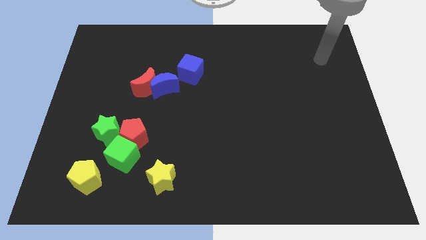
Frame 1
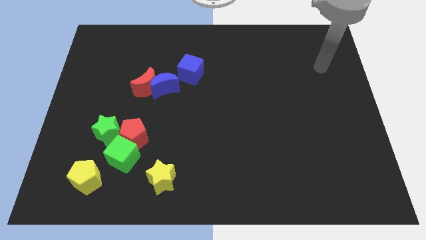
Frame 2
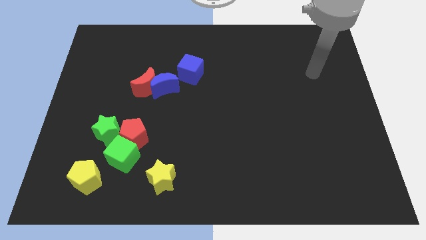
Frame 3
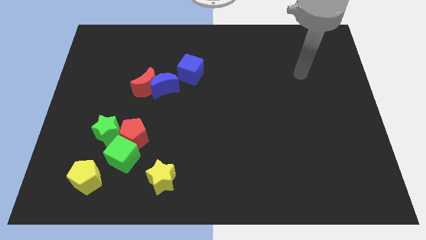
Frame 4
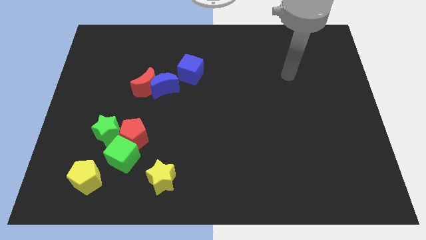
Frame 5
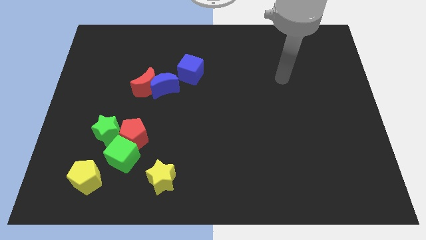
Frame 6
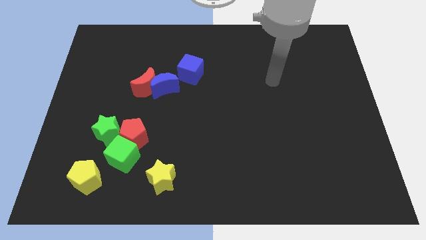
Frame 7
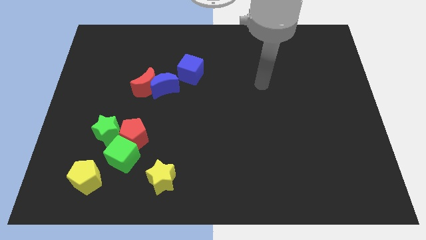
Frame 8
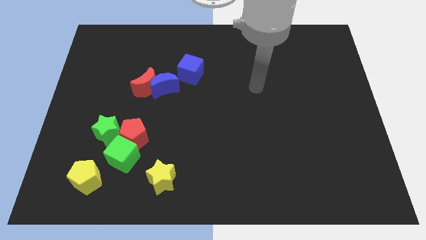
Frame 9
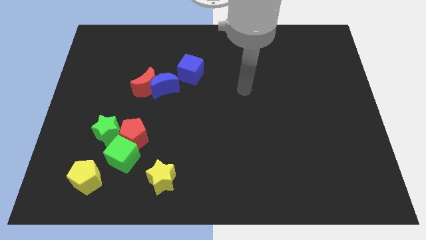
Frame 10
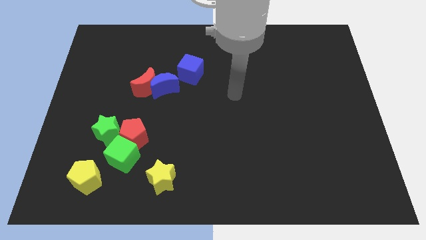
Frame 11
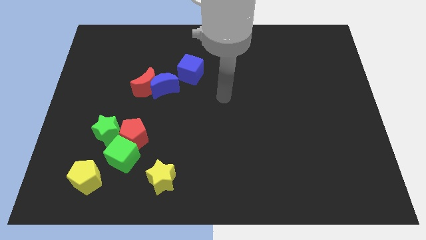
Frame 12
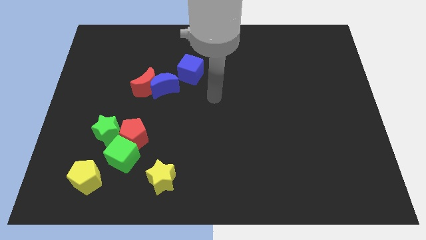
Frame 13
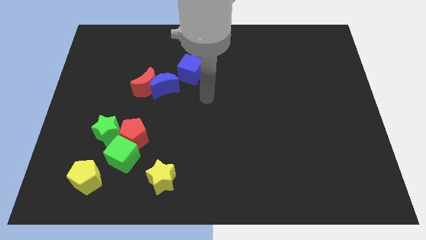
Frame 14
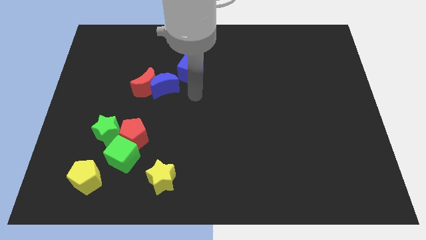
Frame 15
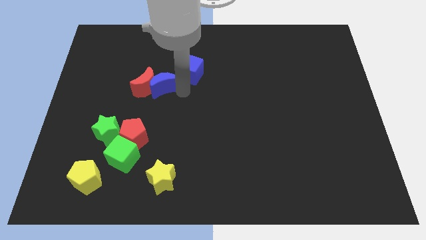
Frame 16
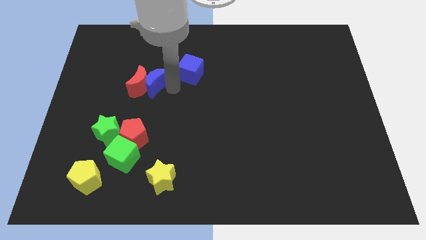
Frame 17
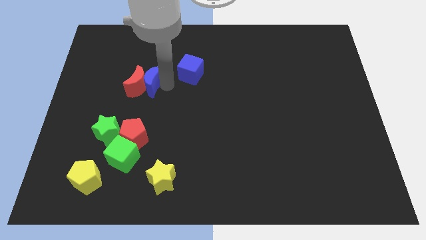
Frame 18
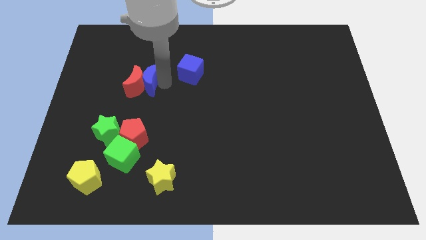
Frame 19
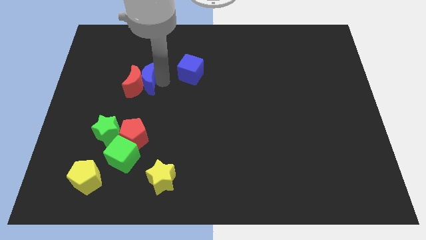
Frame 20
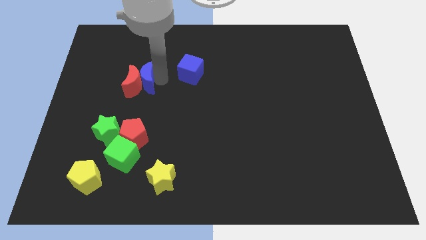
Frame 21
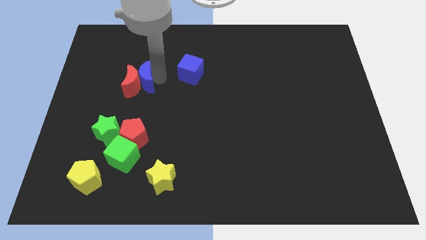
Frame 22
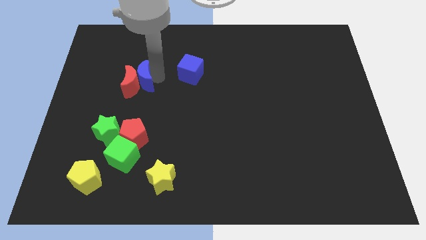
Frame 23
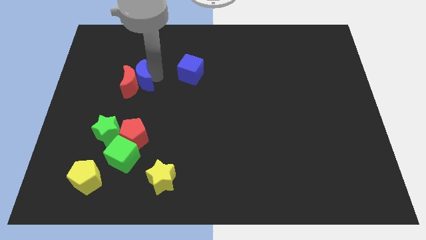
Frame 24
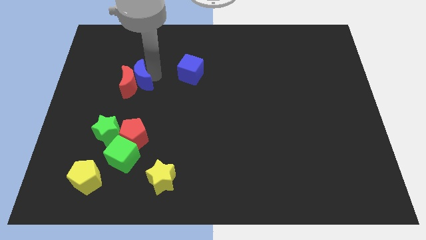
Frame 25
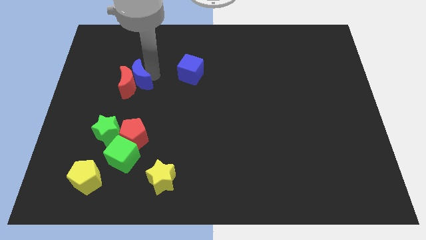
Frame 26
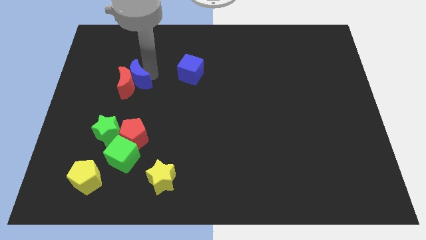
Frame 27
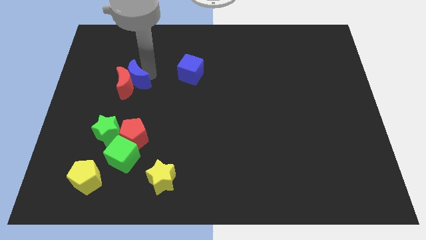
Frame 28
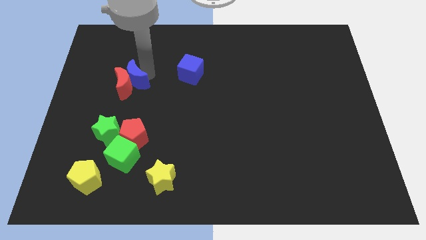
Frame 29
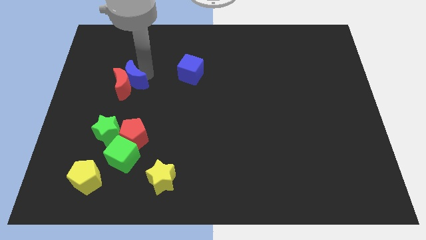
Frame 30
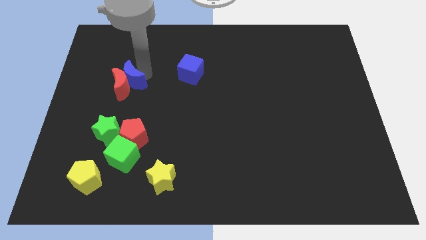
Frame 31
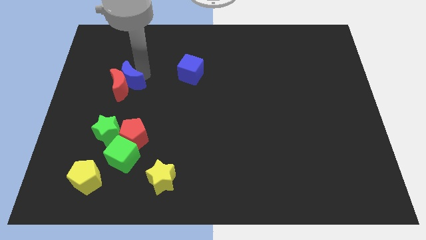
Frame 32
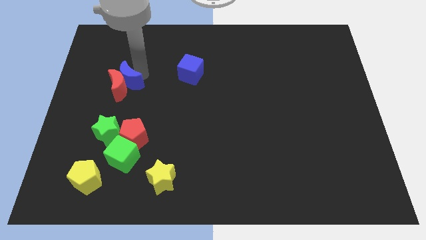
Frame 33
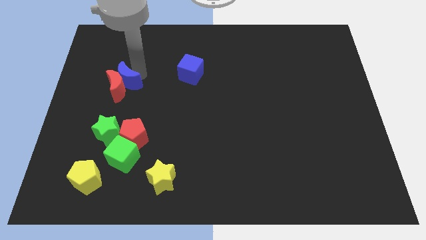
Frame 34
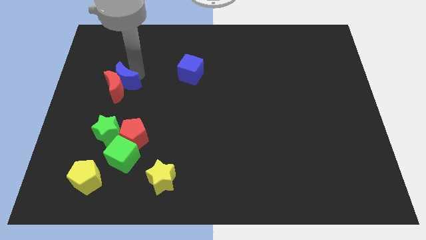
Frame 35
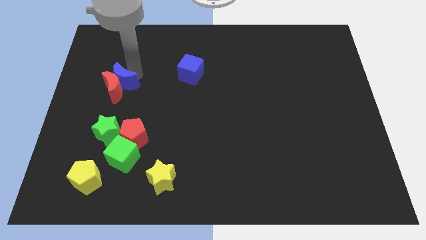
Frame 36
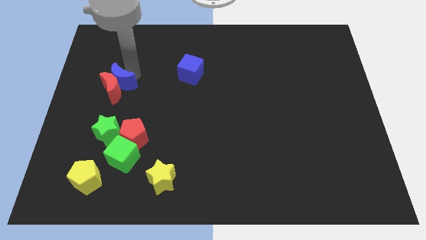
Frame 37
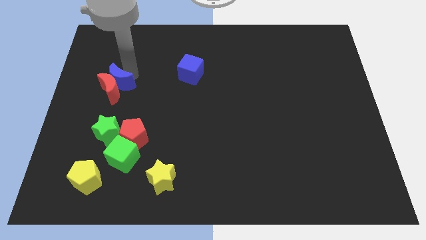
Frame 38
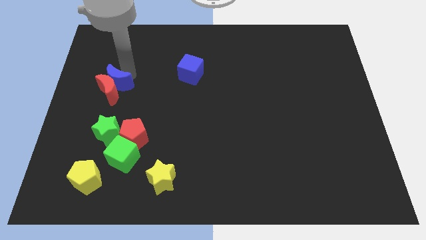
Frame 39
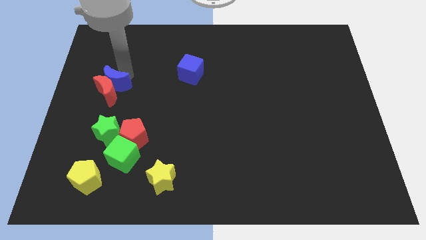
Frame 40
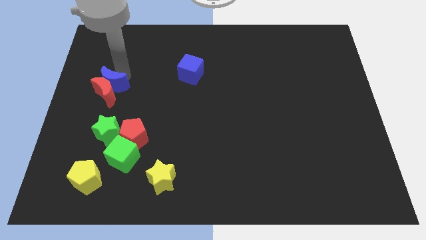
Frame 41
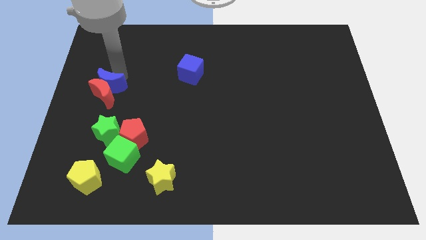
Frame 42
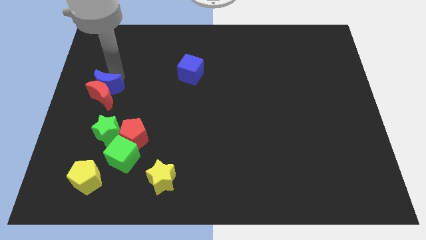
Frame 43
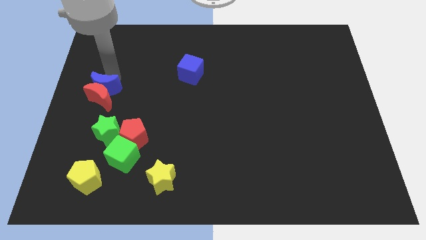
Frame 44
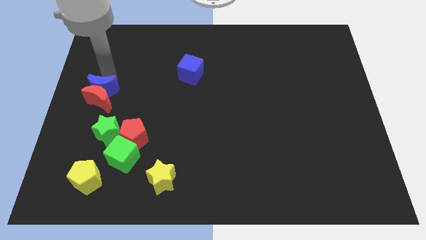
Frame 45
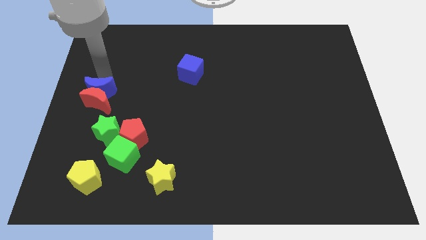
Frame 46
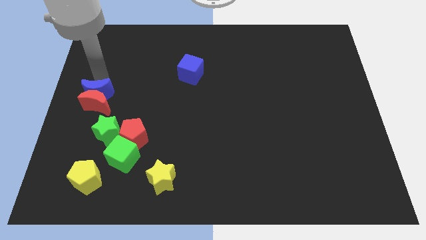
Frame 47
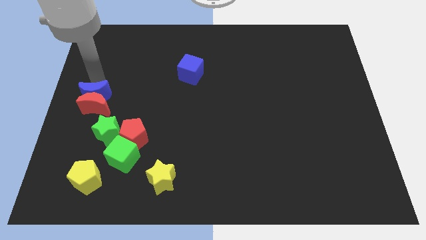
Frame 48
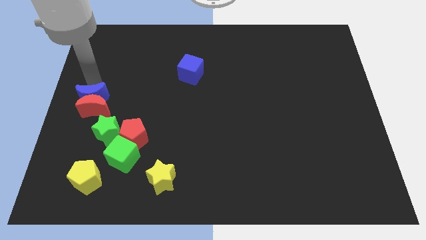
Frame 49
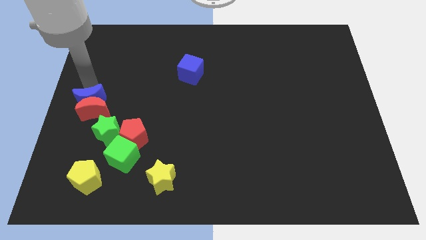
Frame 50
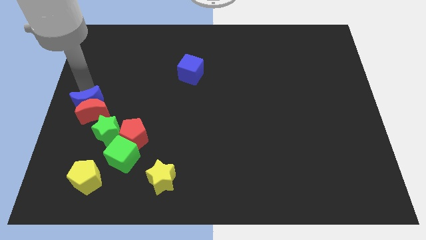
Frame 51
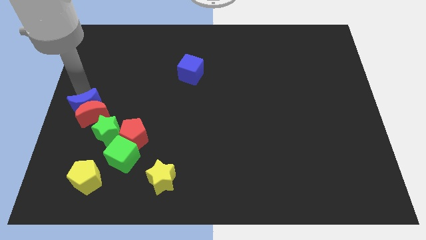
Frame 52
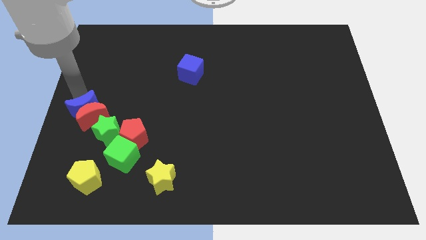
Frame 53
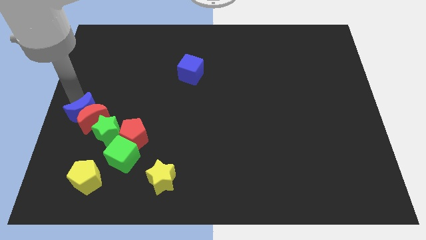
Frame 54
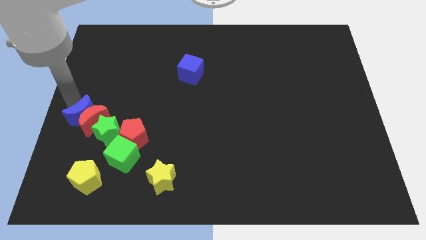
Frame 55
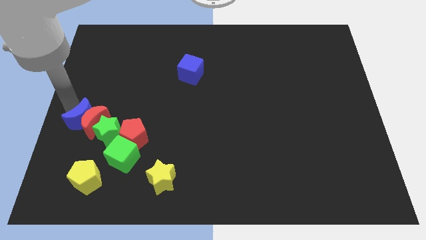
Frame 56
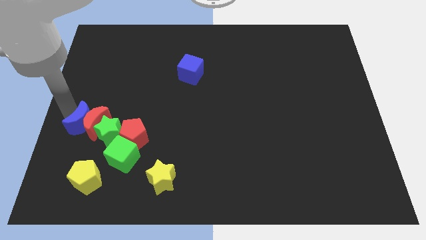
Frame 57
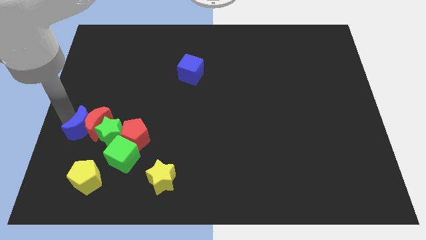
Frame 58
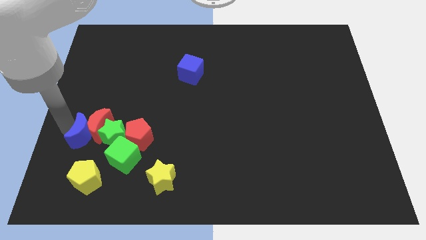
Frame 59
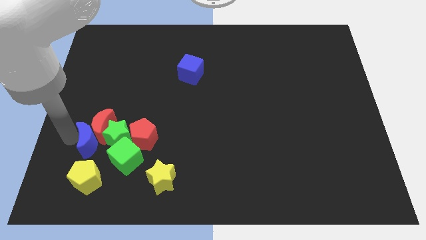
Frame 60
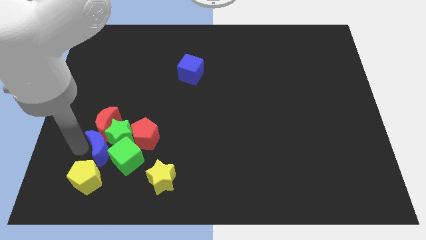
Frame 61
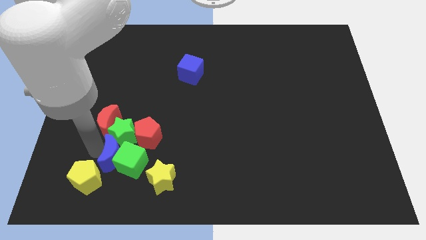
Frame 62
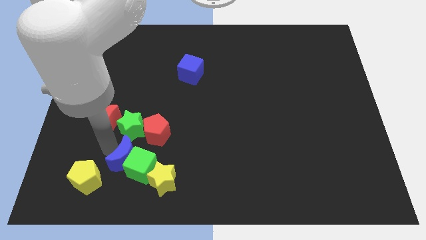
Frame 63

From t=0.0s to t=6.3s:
pull the red moon apart from the blue moon

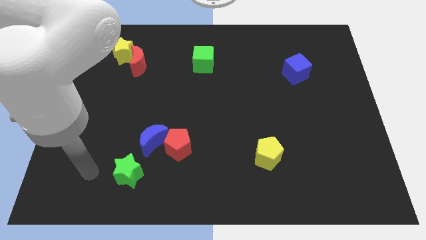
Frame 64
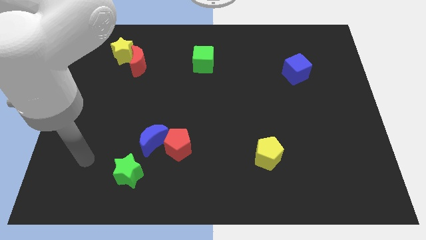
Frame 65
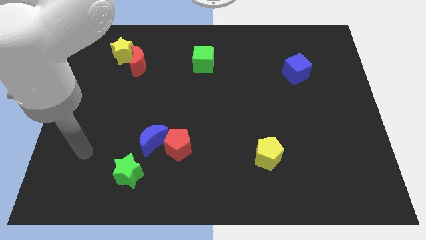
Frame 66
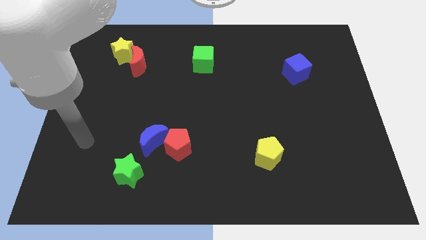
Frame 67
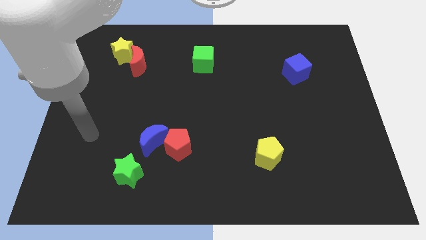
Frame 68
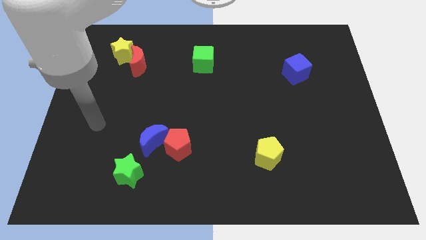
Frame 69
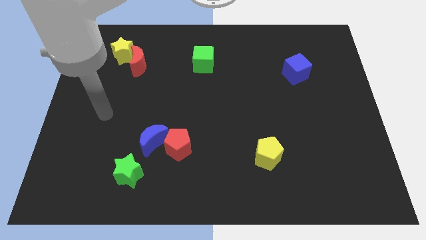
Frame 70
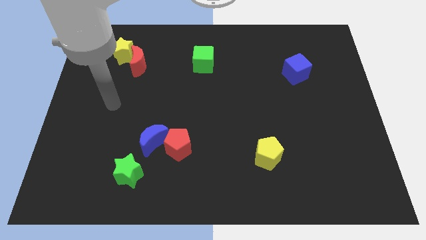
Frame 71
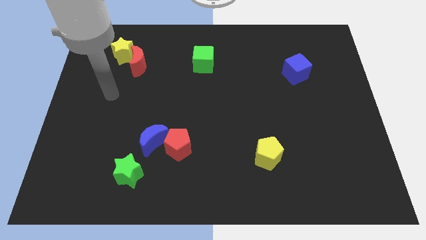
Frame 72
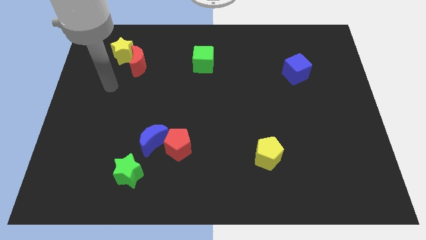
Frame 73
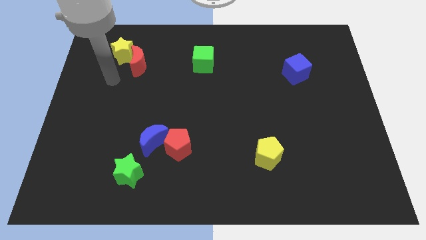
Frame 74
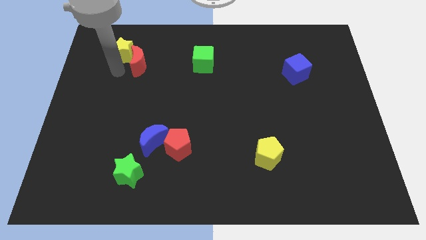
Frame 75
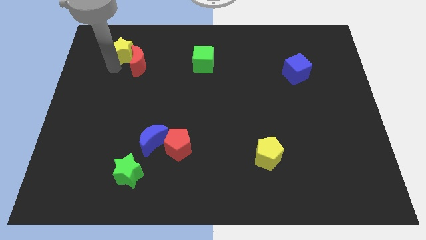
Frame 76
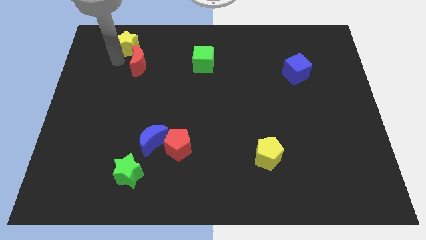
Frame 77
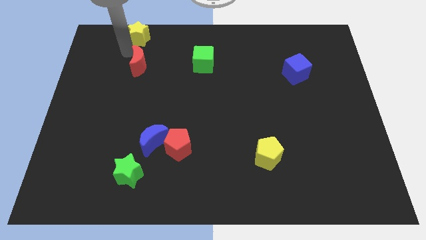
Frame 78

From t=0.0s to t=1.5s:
separate the red moon from the yellow star

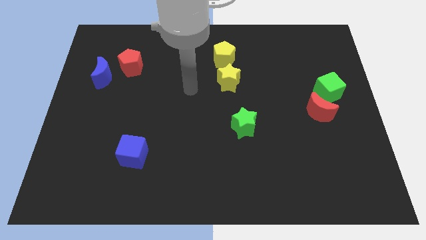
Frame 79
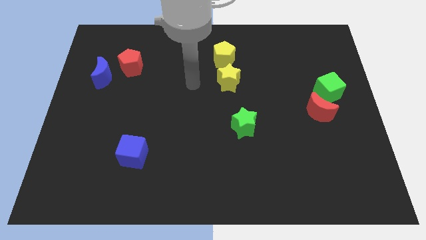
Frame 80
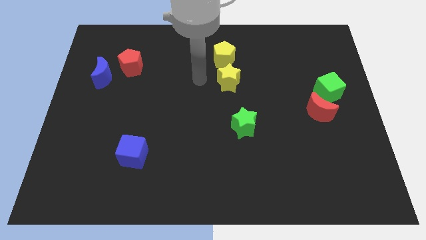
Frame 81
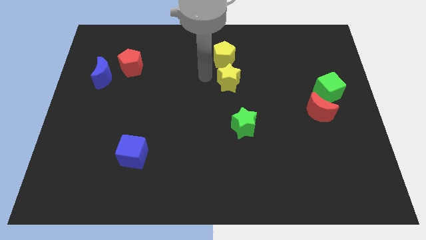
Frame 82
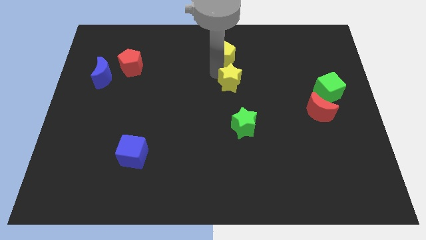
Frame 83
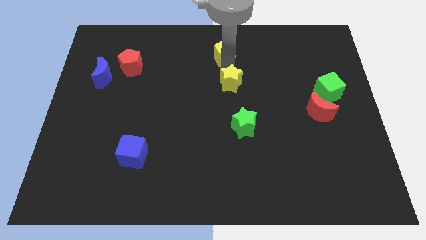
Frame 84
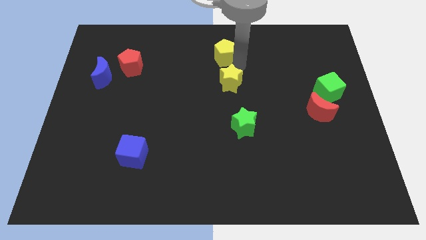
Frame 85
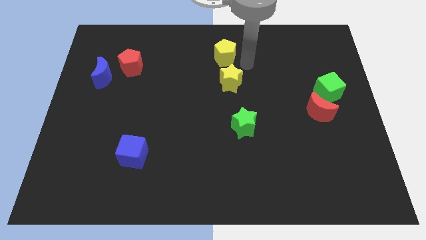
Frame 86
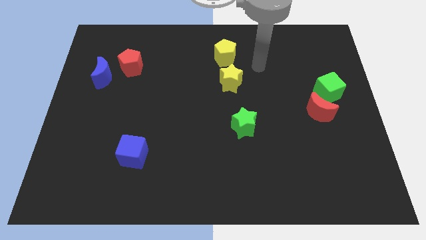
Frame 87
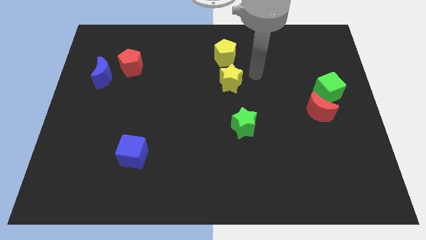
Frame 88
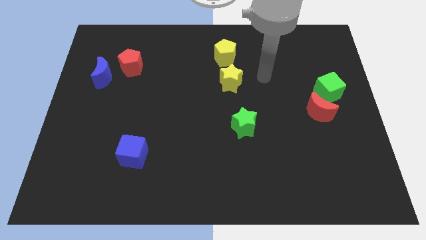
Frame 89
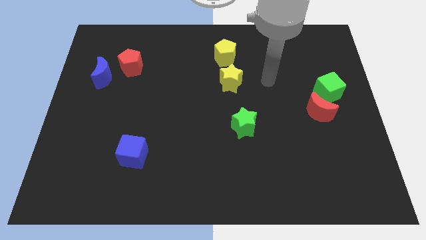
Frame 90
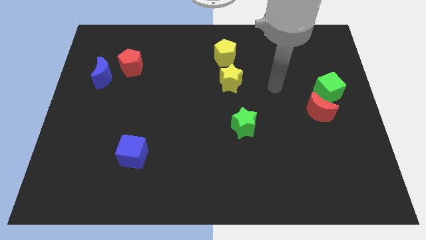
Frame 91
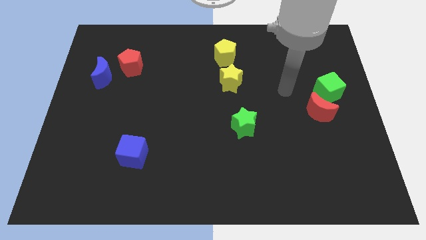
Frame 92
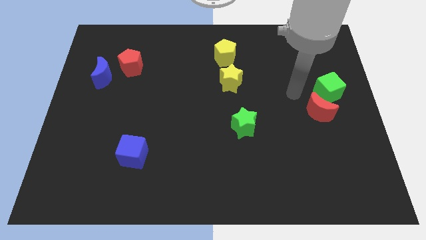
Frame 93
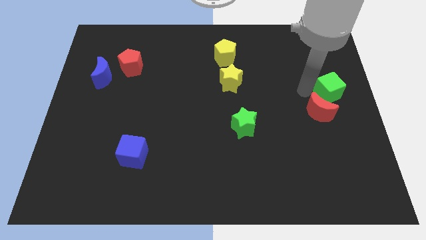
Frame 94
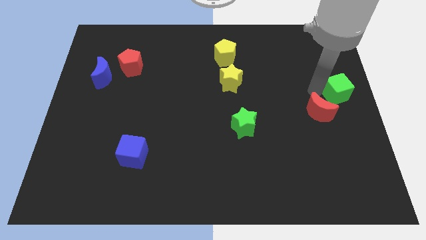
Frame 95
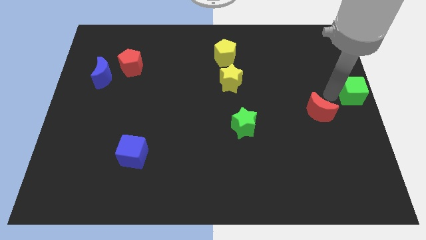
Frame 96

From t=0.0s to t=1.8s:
separate the red moon from the green cube
